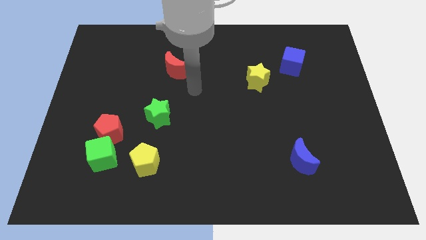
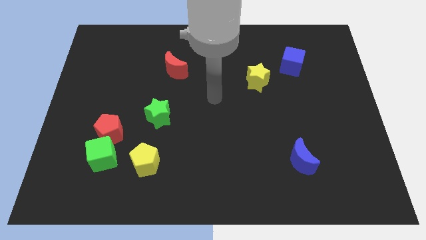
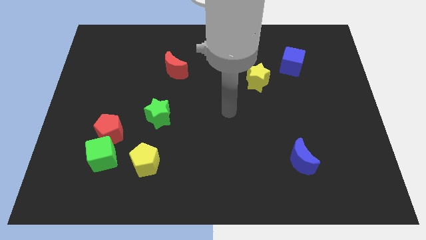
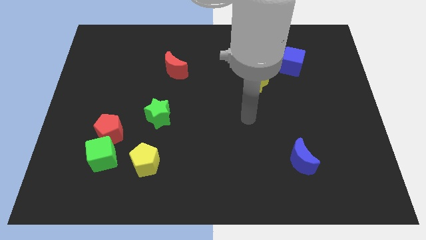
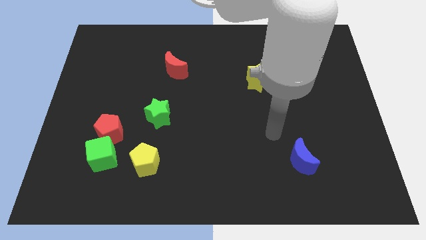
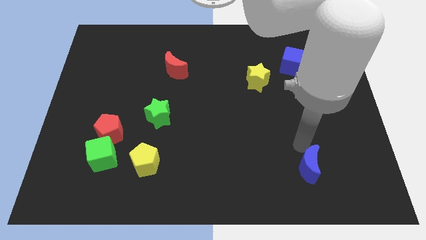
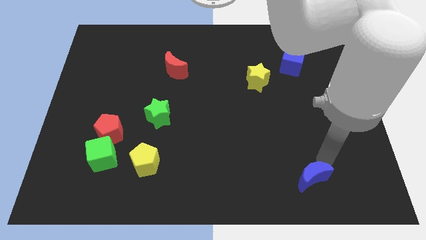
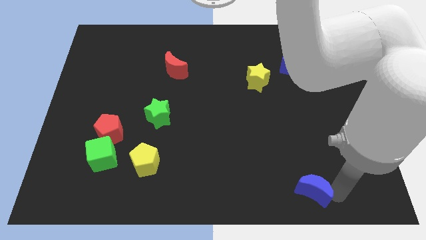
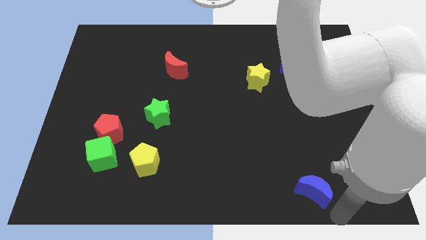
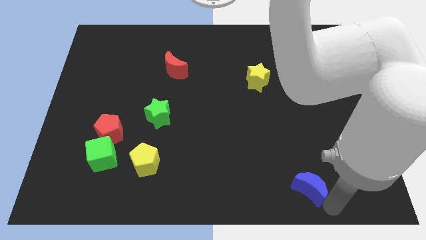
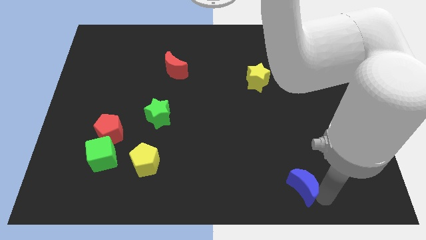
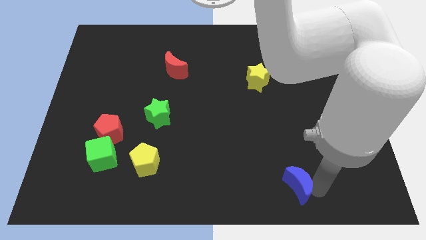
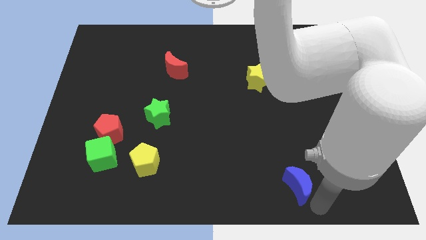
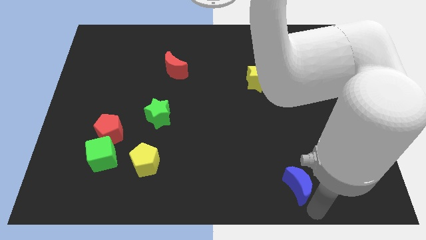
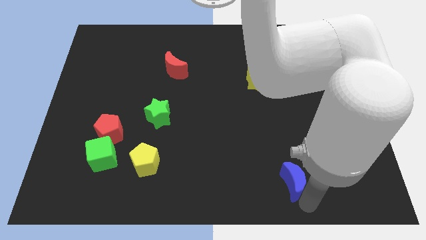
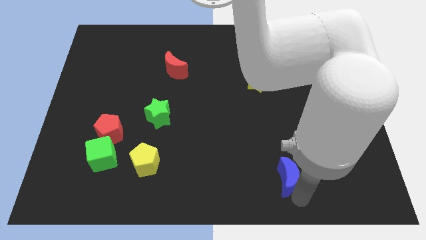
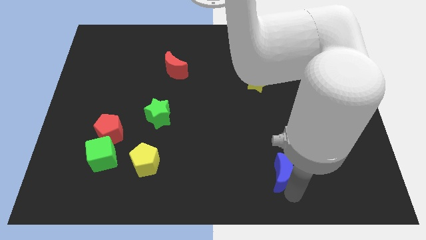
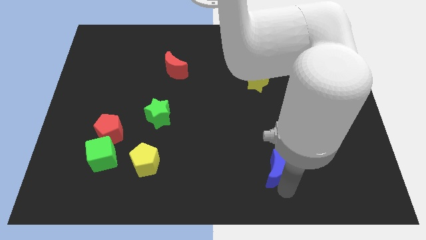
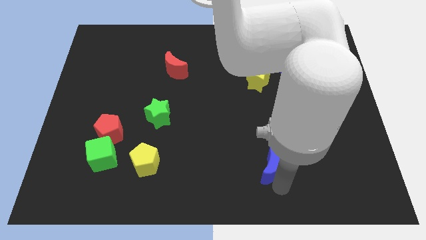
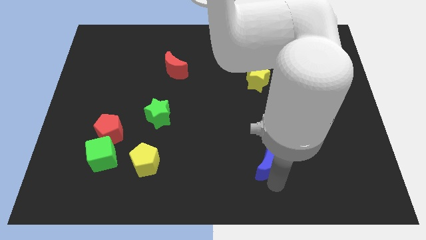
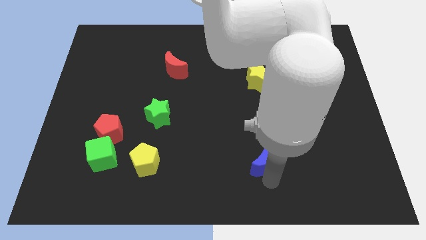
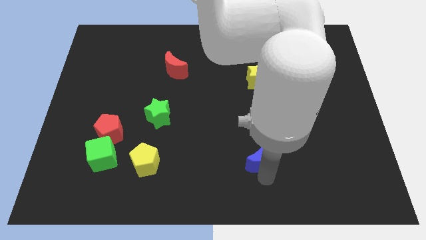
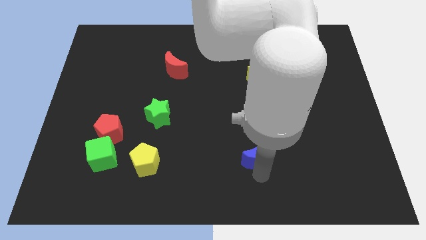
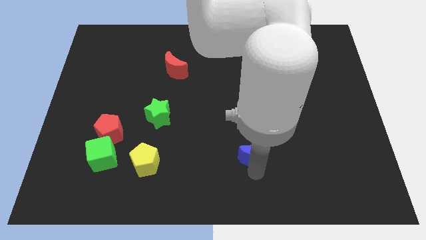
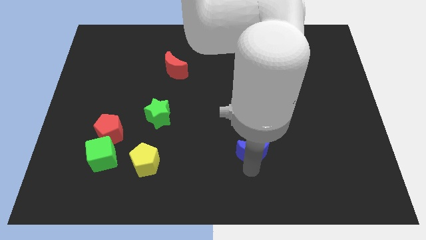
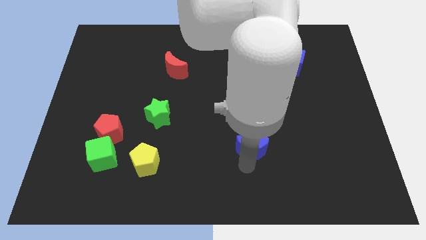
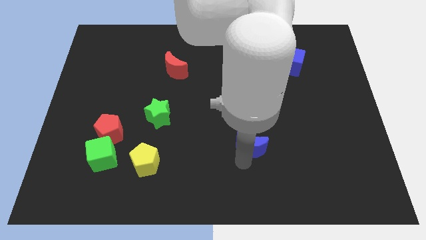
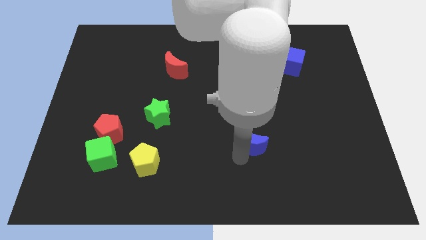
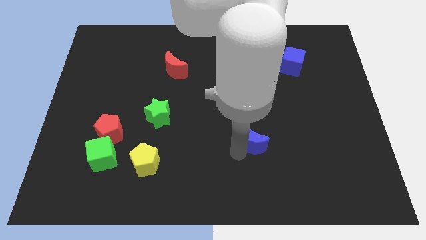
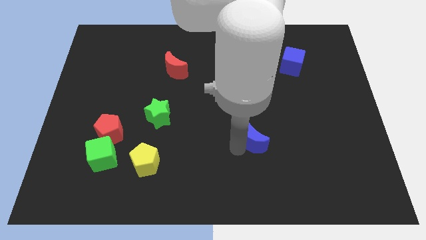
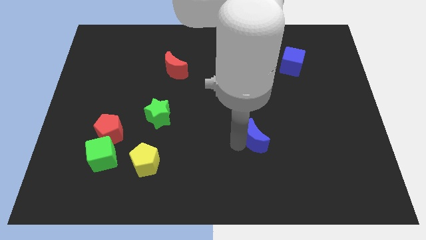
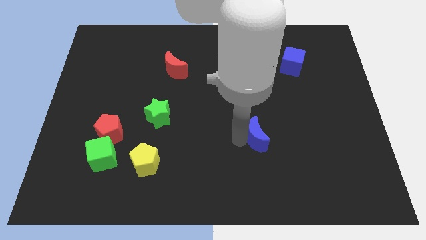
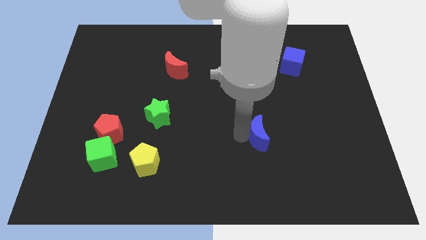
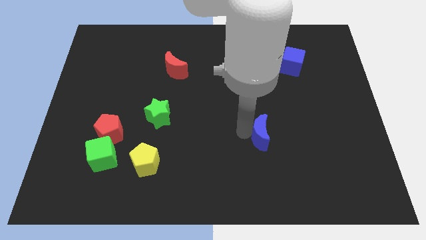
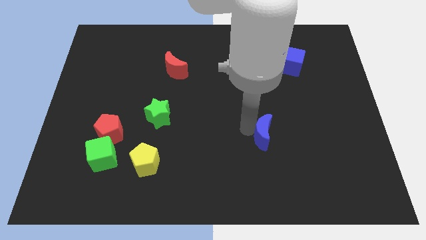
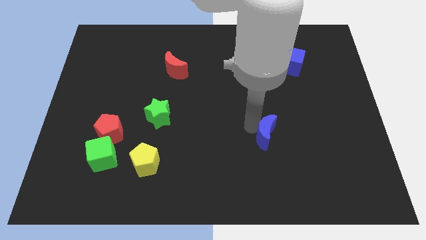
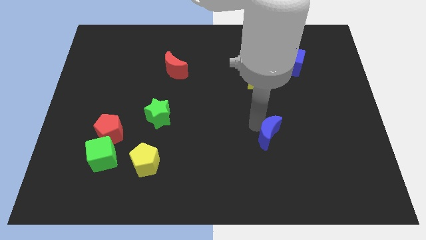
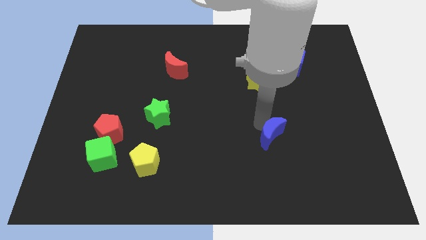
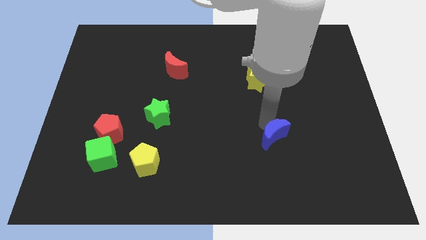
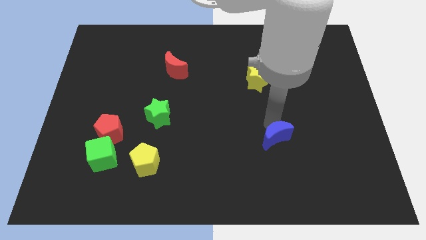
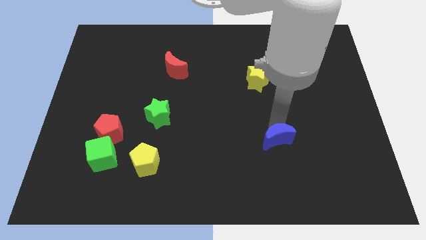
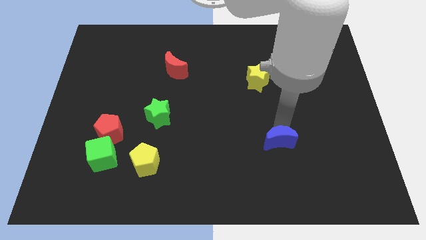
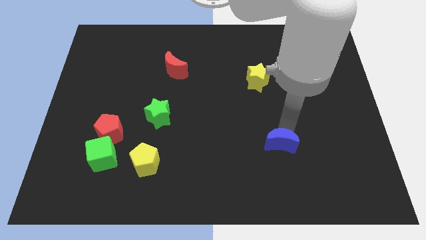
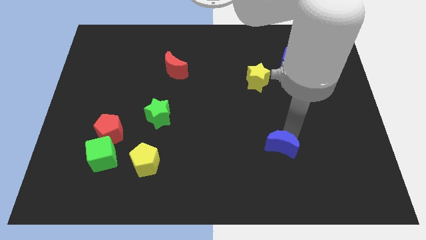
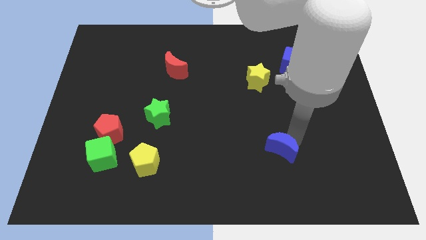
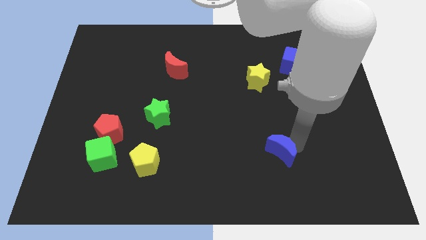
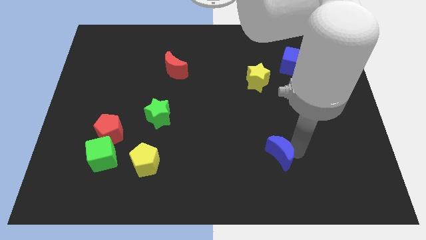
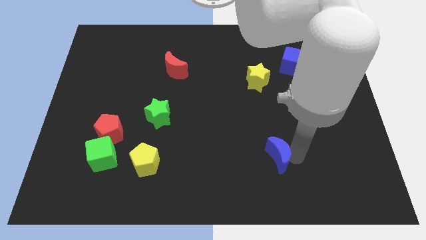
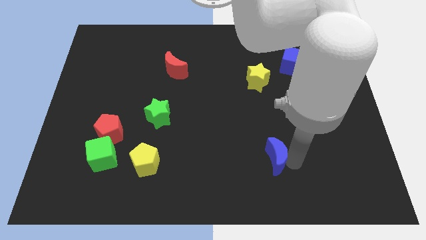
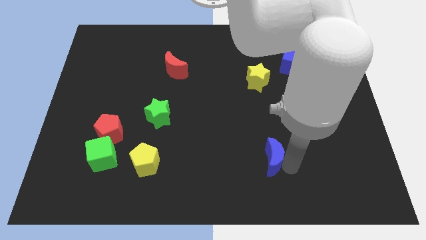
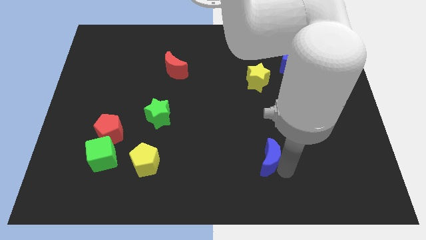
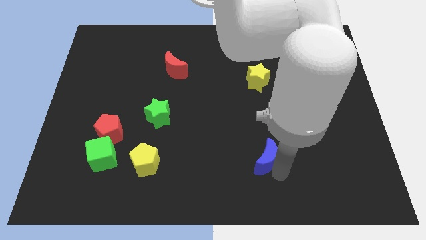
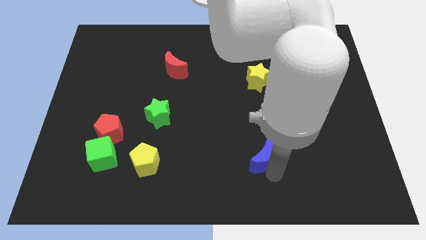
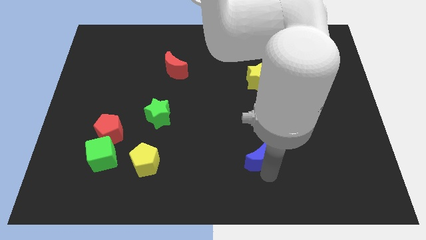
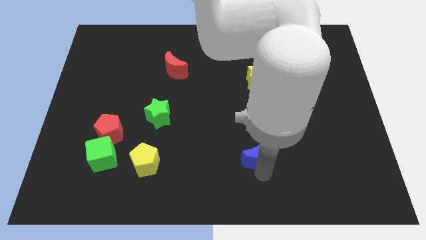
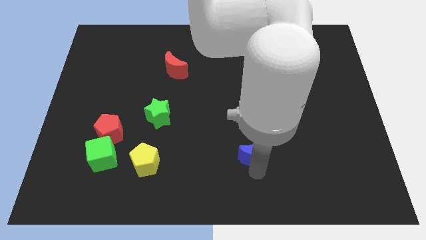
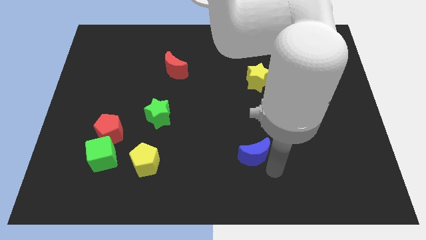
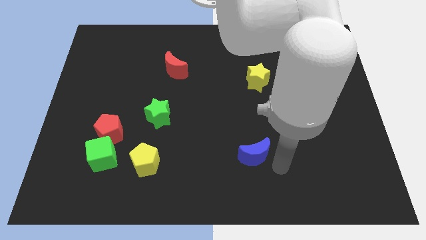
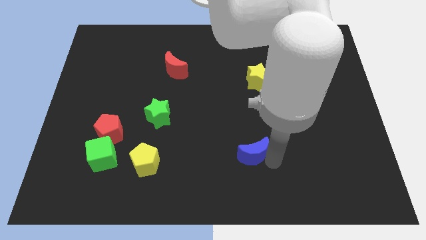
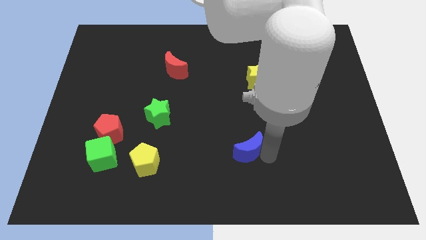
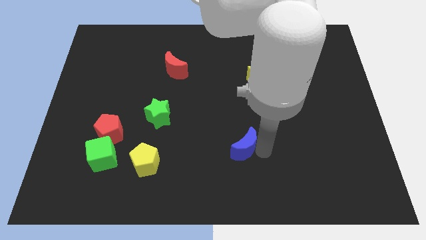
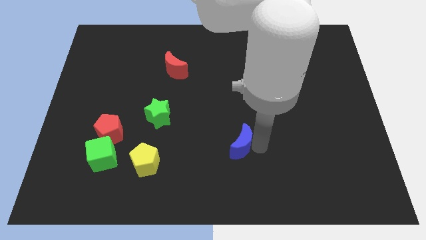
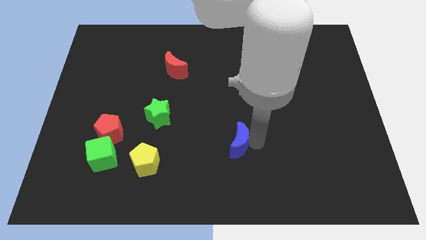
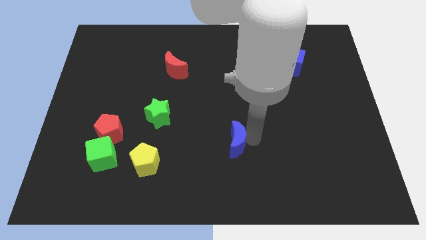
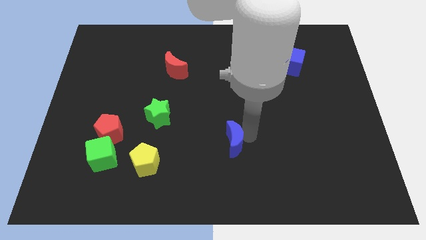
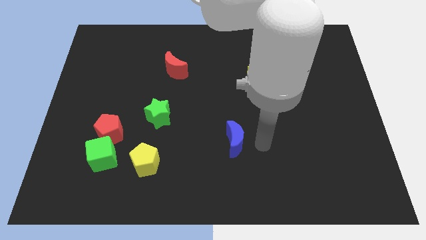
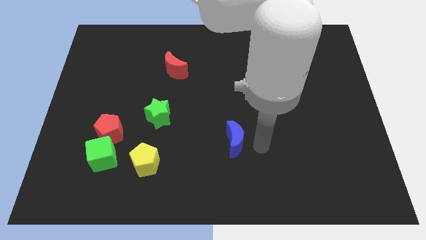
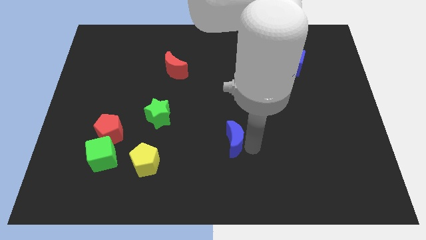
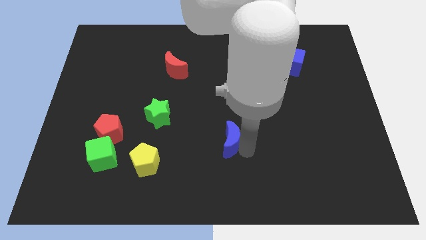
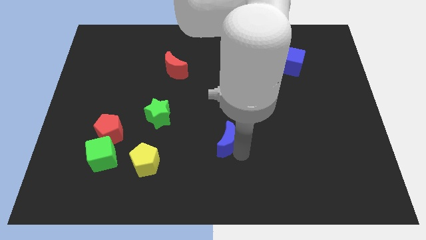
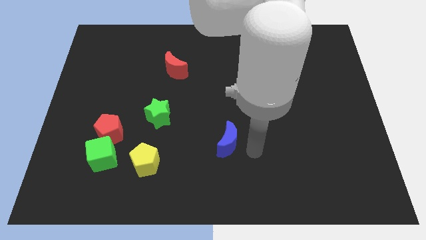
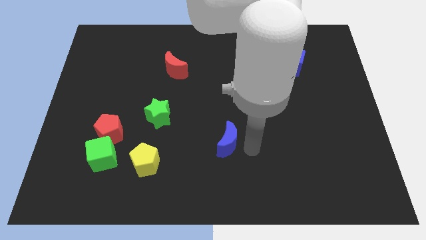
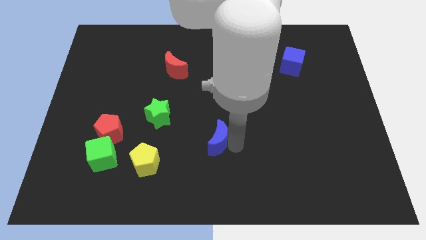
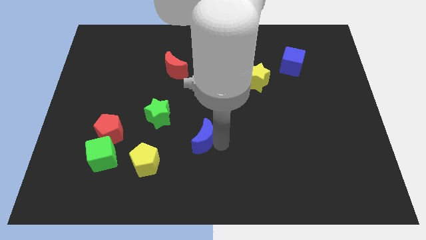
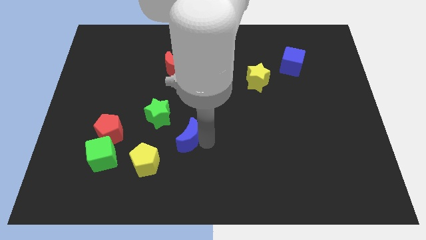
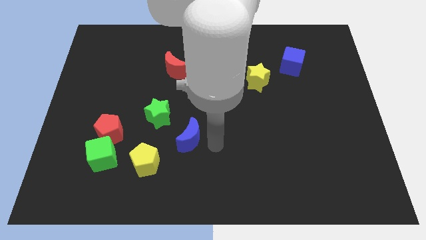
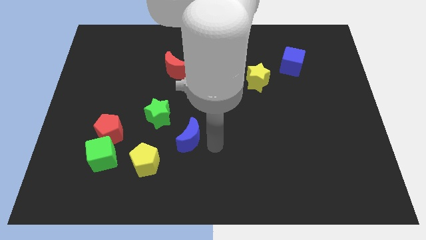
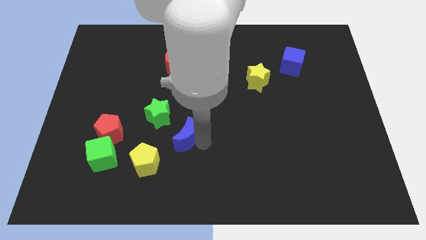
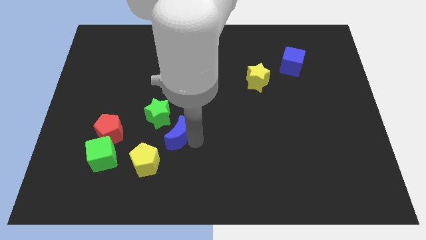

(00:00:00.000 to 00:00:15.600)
slide the blue moon to the right of the red pentagon
